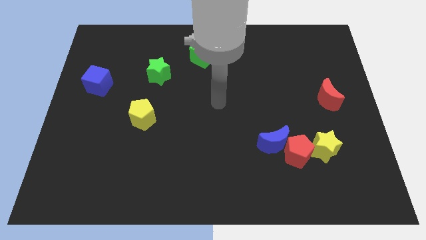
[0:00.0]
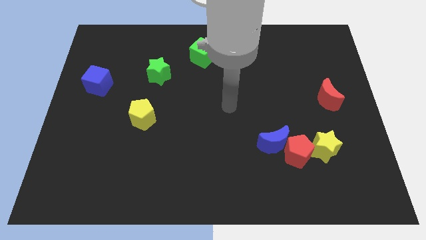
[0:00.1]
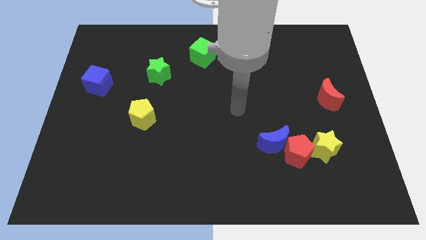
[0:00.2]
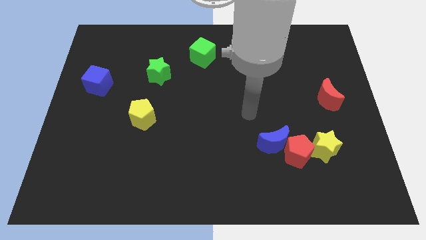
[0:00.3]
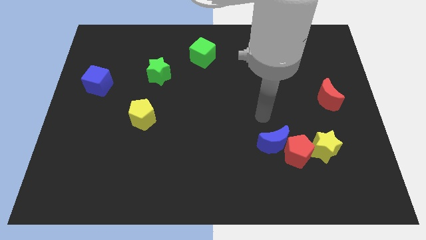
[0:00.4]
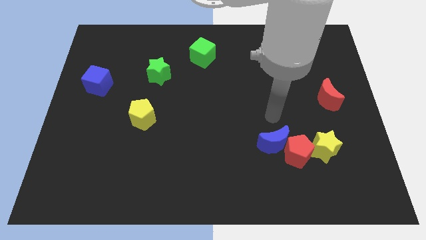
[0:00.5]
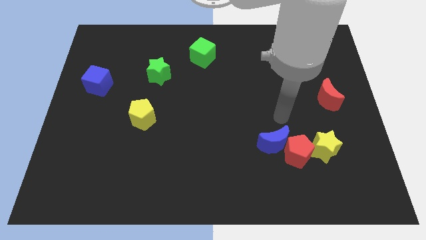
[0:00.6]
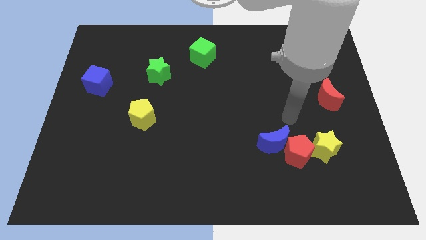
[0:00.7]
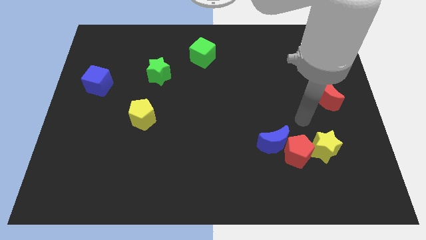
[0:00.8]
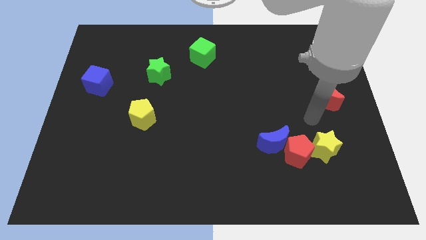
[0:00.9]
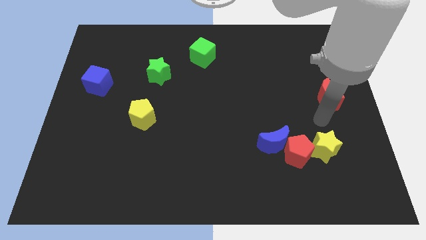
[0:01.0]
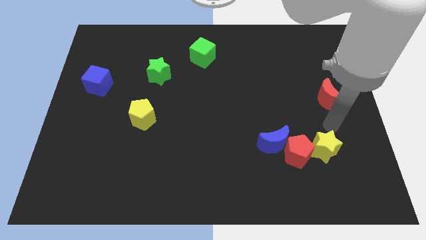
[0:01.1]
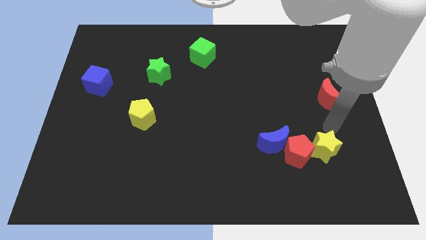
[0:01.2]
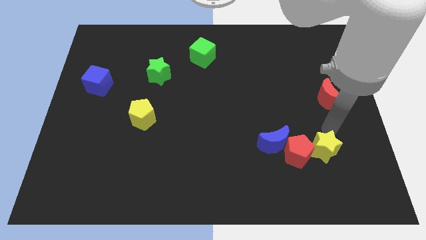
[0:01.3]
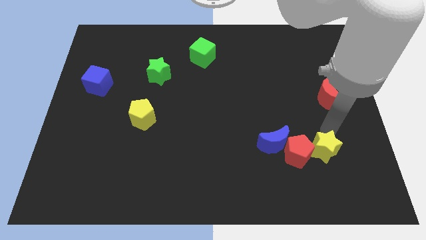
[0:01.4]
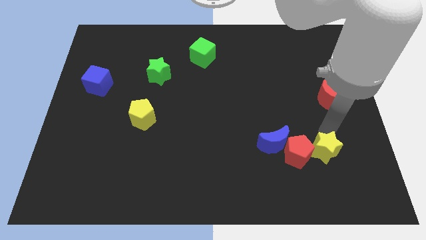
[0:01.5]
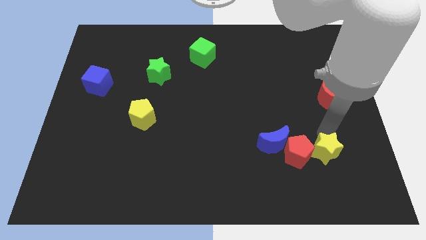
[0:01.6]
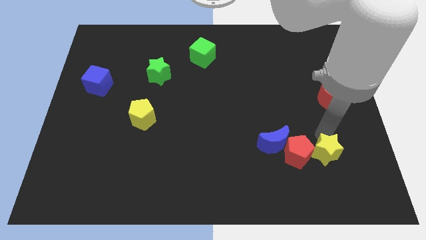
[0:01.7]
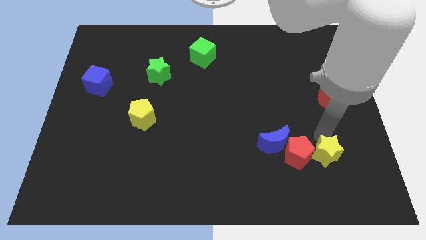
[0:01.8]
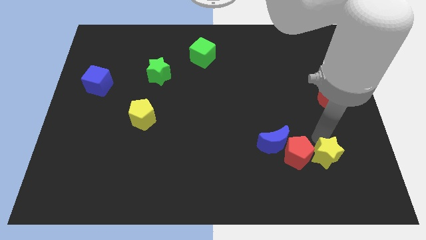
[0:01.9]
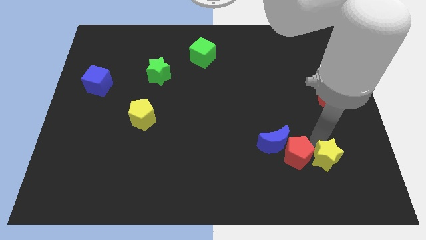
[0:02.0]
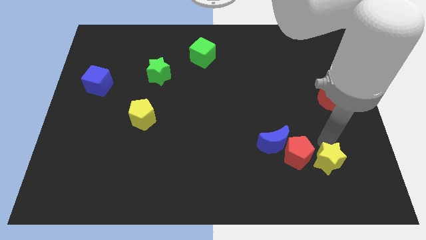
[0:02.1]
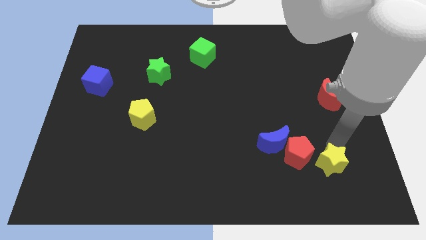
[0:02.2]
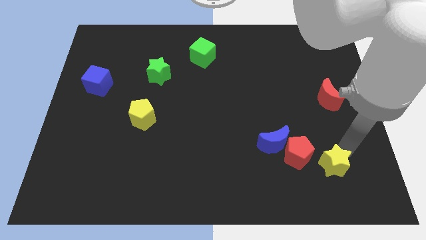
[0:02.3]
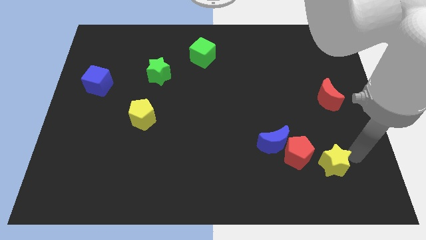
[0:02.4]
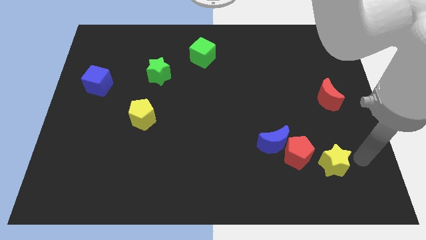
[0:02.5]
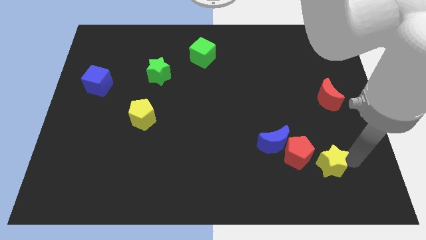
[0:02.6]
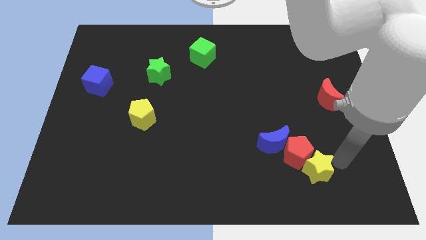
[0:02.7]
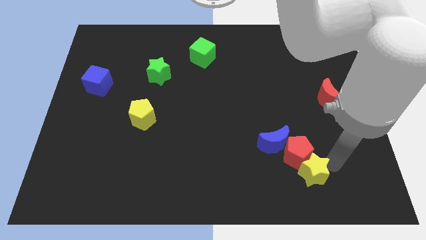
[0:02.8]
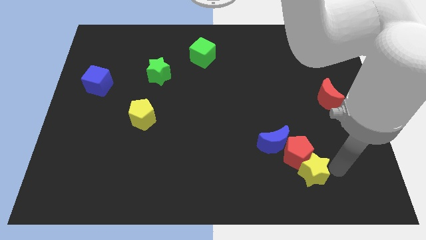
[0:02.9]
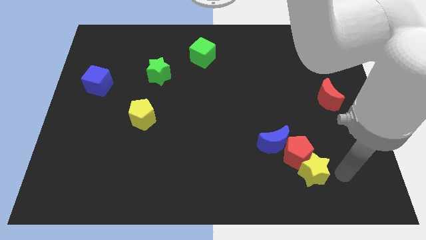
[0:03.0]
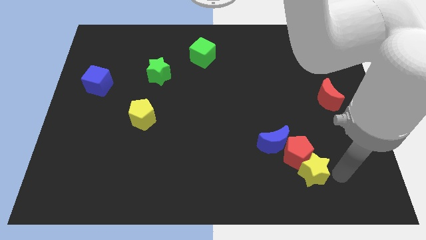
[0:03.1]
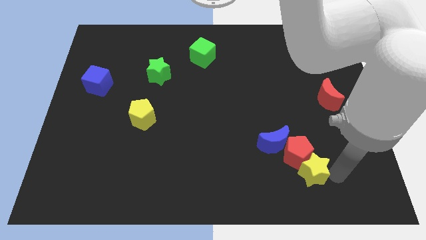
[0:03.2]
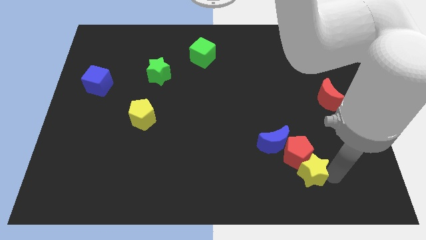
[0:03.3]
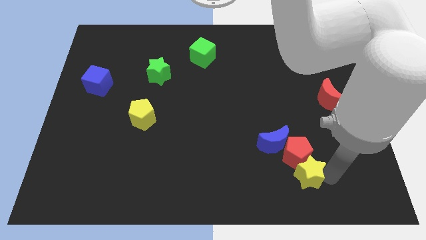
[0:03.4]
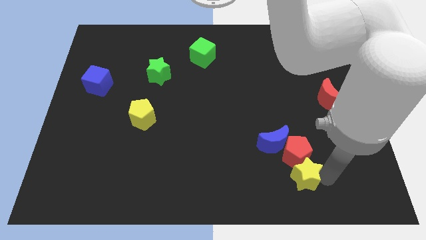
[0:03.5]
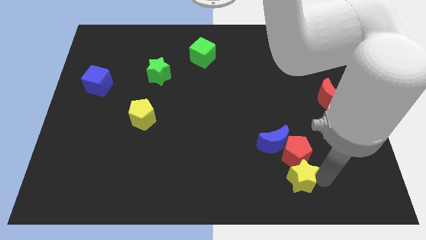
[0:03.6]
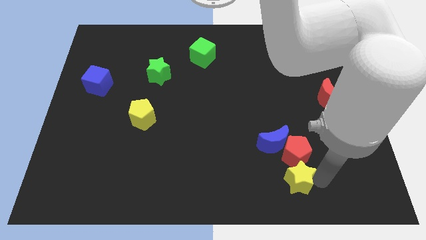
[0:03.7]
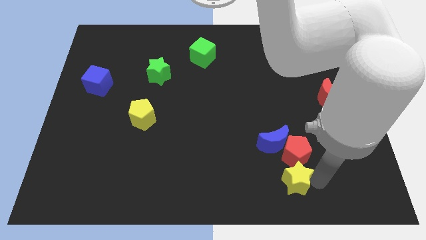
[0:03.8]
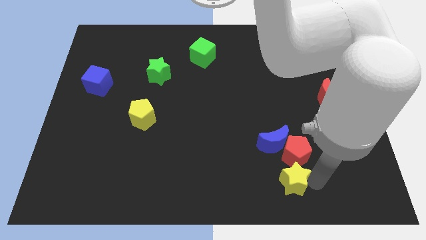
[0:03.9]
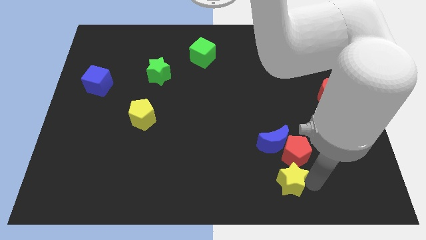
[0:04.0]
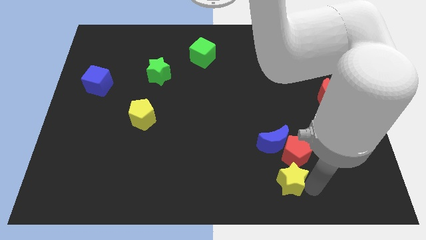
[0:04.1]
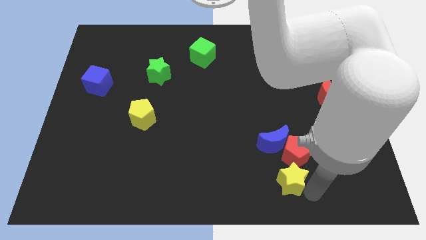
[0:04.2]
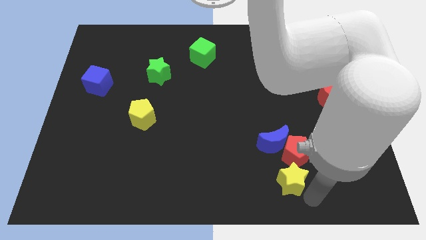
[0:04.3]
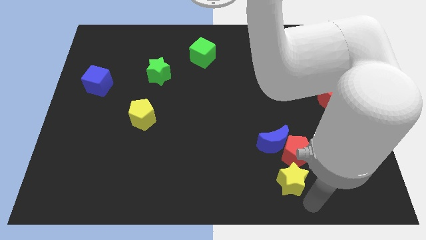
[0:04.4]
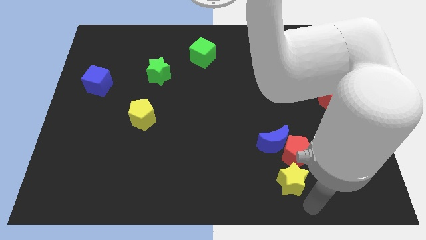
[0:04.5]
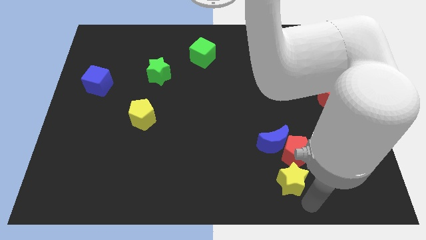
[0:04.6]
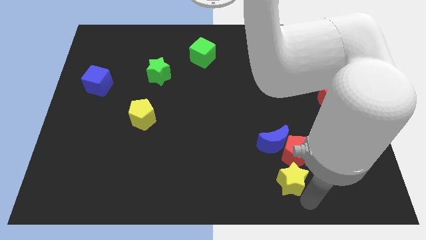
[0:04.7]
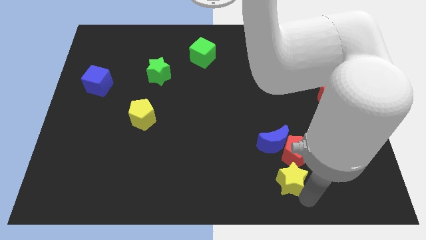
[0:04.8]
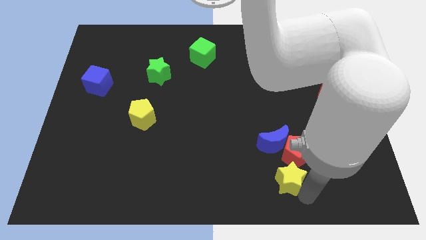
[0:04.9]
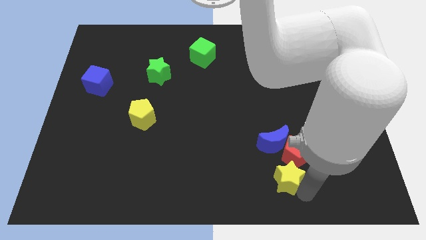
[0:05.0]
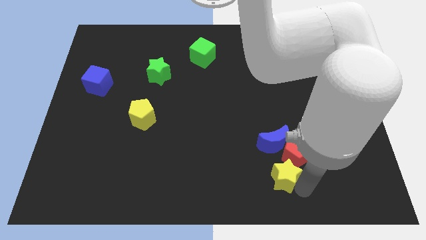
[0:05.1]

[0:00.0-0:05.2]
slide the yellow star left a little

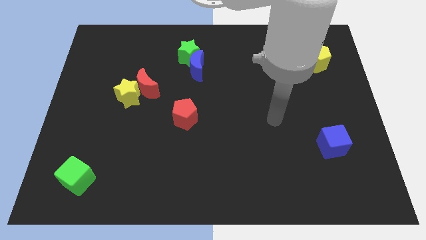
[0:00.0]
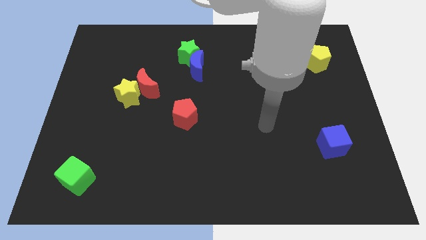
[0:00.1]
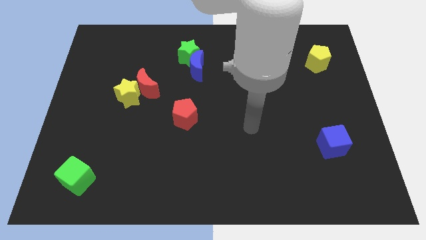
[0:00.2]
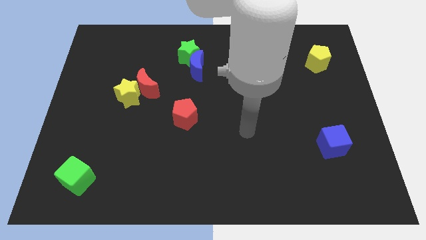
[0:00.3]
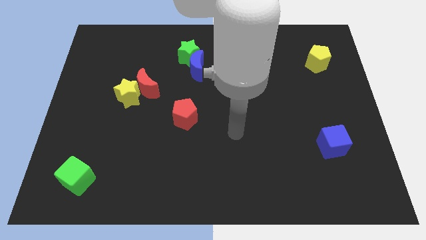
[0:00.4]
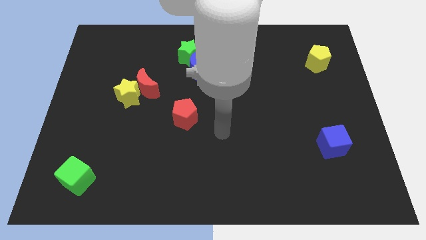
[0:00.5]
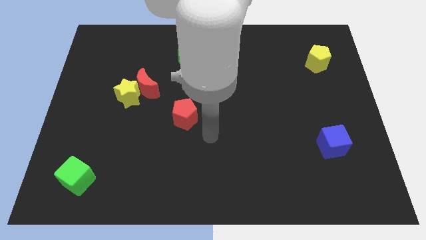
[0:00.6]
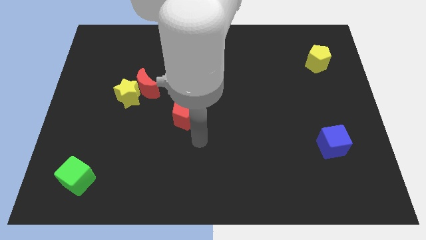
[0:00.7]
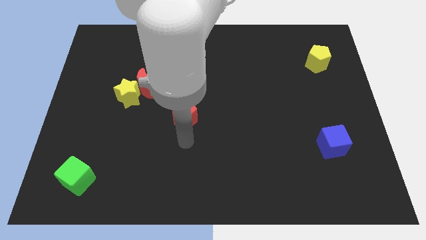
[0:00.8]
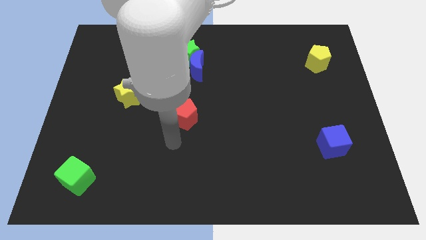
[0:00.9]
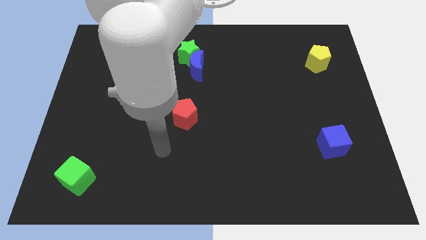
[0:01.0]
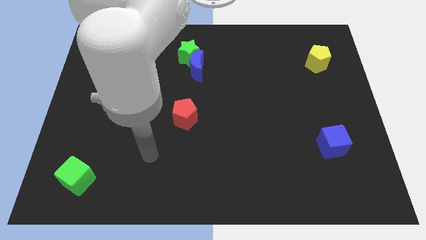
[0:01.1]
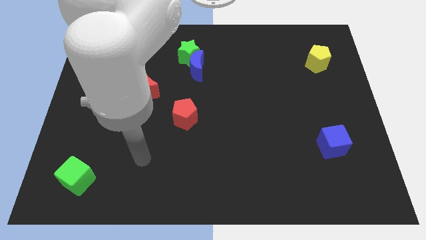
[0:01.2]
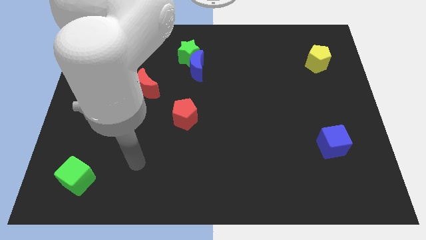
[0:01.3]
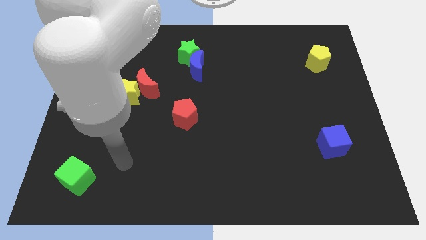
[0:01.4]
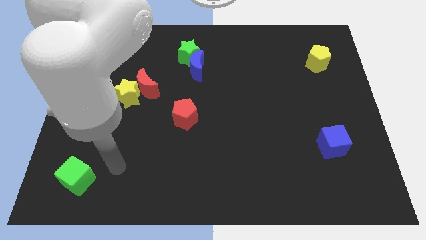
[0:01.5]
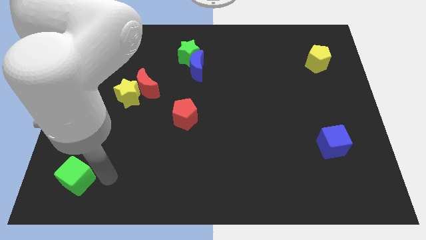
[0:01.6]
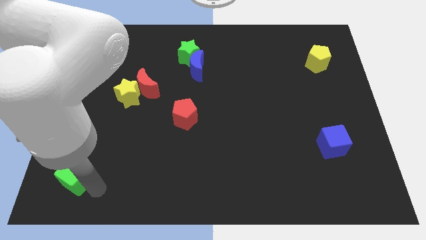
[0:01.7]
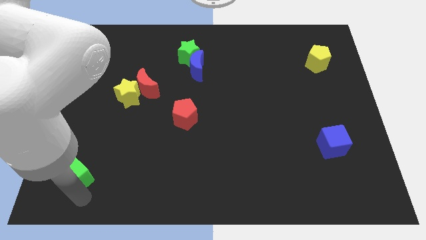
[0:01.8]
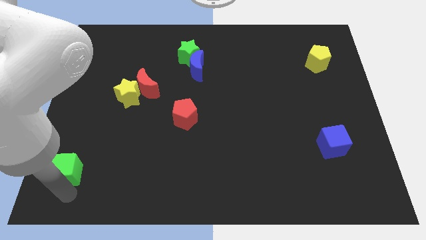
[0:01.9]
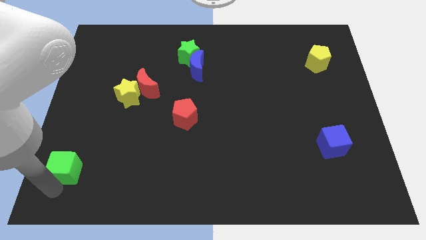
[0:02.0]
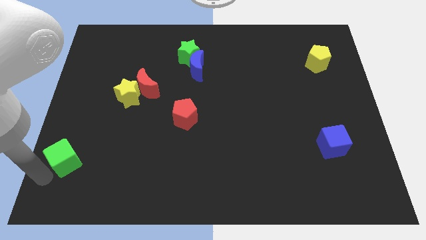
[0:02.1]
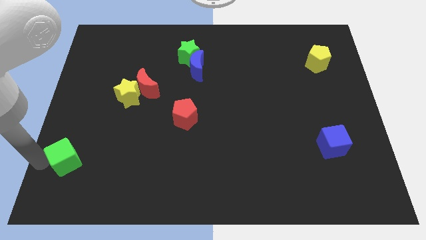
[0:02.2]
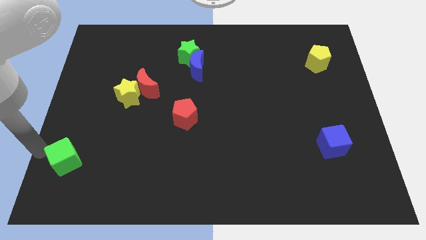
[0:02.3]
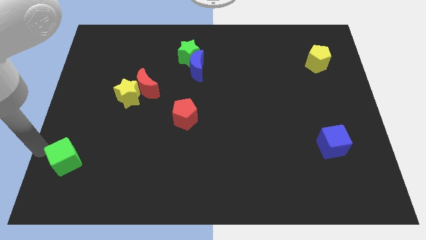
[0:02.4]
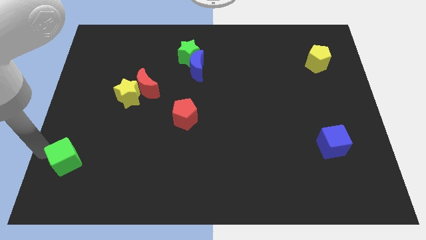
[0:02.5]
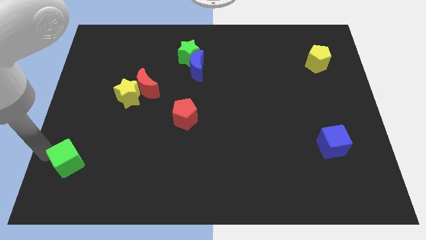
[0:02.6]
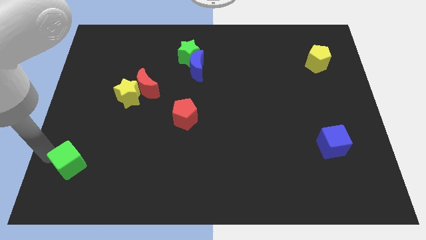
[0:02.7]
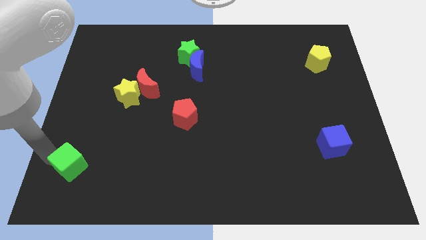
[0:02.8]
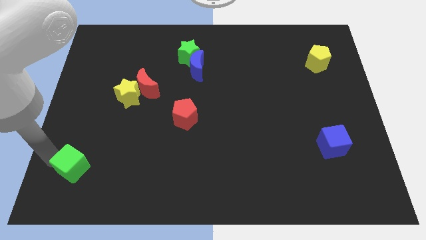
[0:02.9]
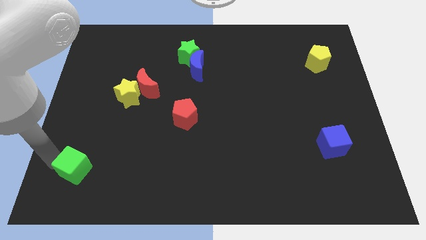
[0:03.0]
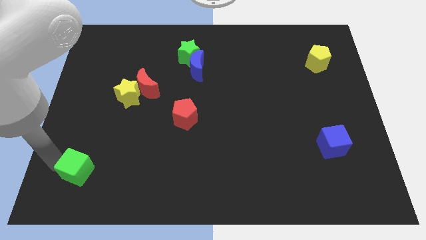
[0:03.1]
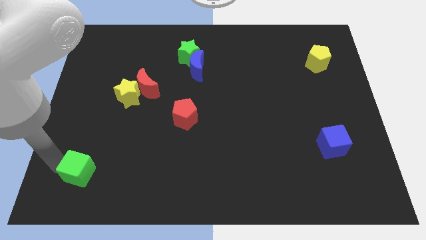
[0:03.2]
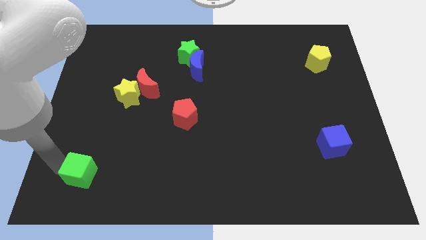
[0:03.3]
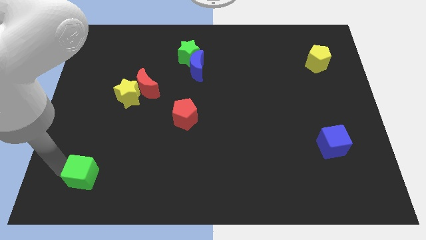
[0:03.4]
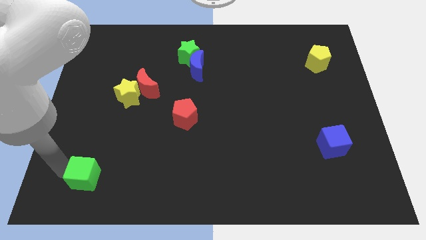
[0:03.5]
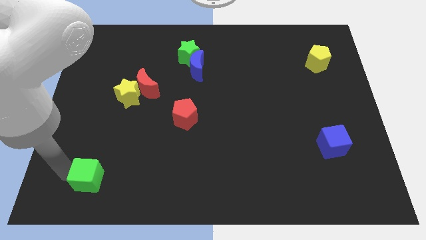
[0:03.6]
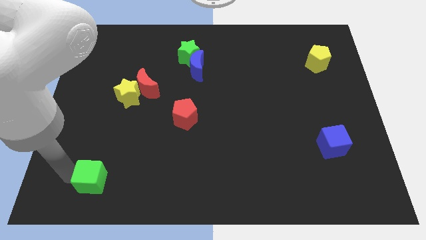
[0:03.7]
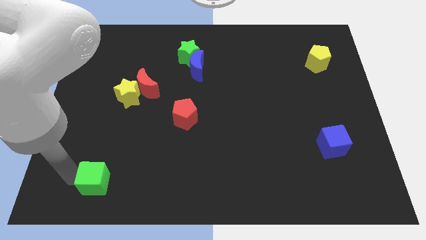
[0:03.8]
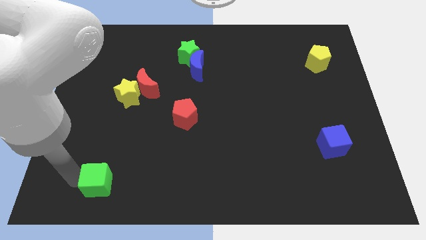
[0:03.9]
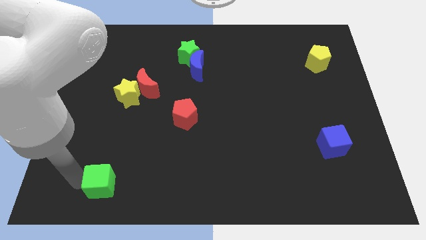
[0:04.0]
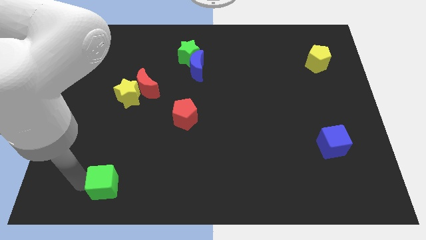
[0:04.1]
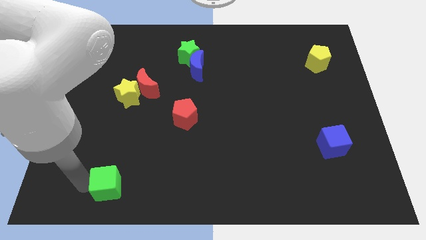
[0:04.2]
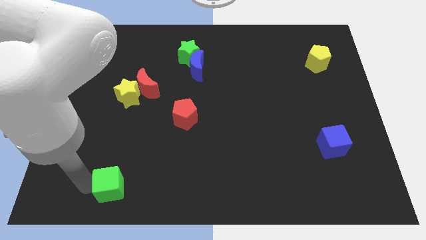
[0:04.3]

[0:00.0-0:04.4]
slightly slide the green cube right
